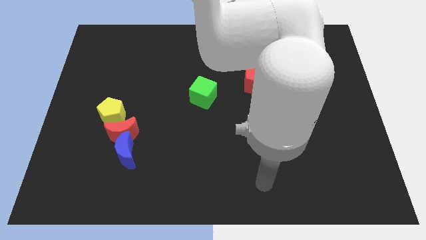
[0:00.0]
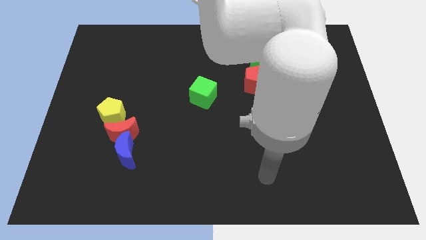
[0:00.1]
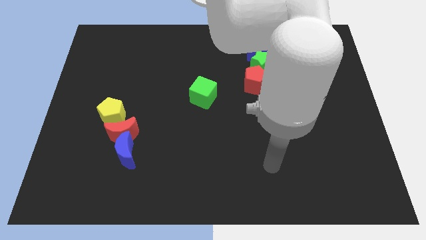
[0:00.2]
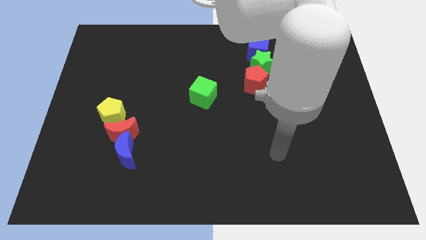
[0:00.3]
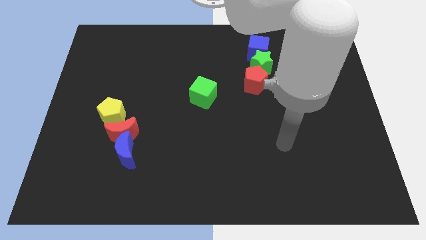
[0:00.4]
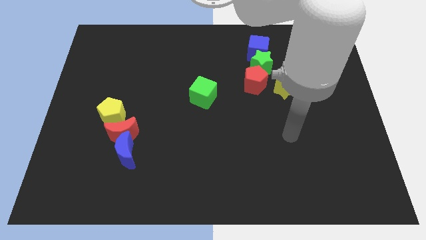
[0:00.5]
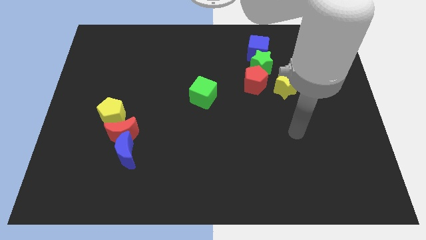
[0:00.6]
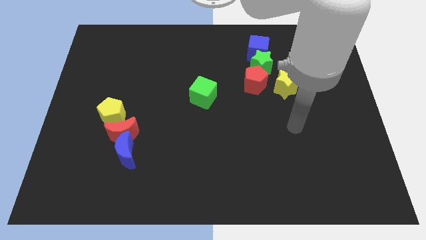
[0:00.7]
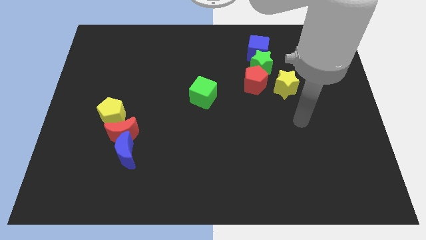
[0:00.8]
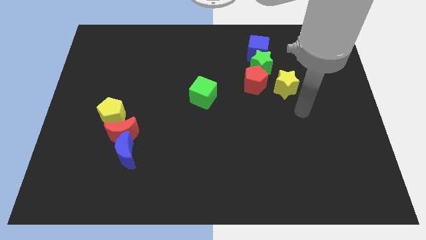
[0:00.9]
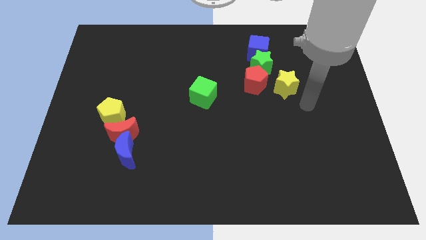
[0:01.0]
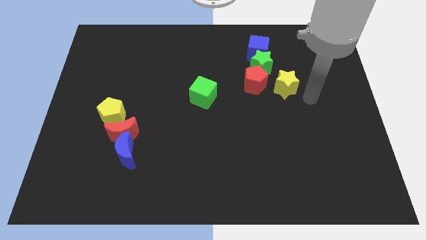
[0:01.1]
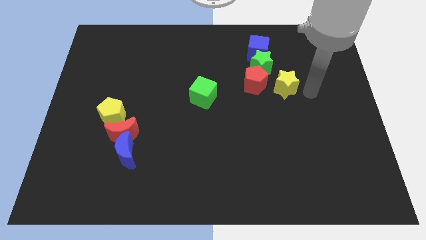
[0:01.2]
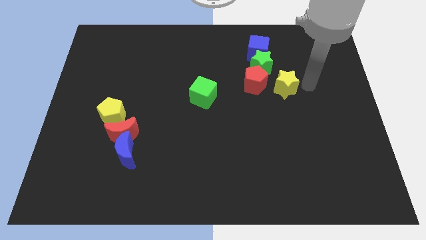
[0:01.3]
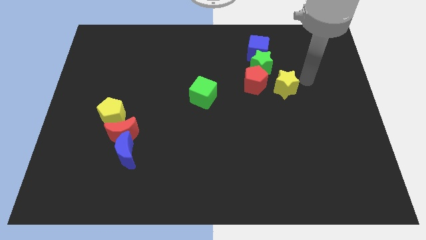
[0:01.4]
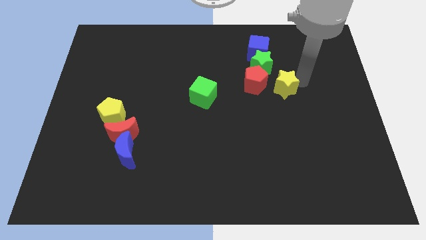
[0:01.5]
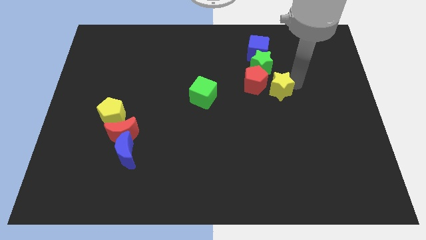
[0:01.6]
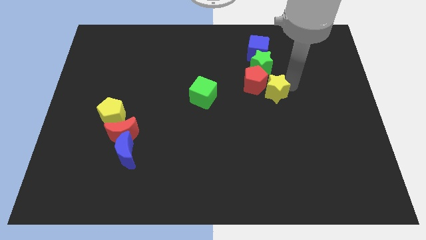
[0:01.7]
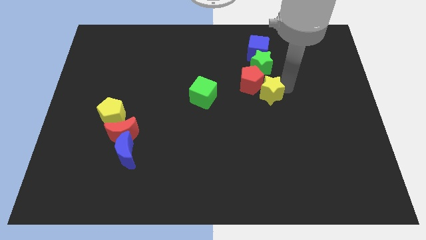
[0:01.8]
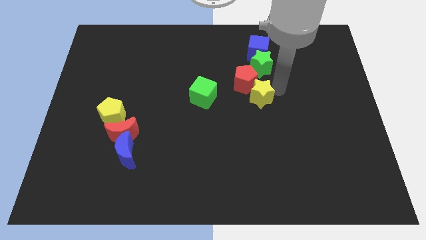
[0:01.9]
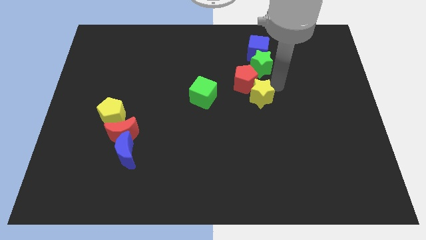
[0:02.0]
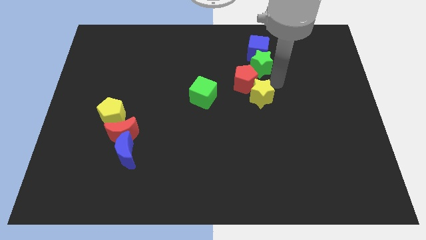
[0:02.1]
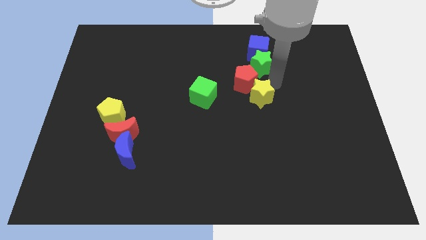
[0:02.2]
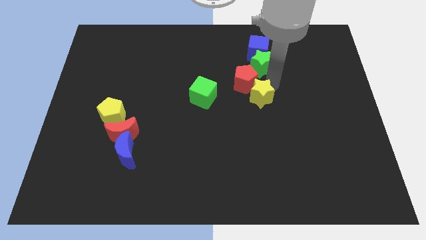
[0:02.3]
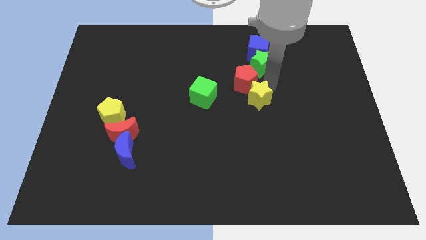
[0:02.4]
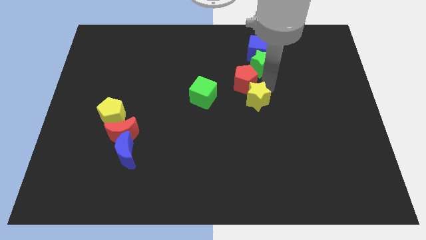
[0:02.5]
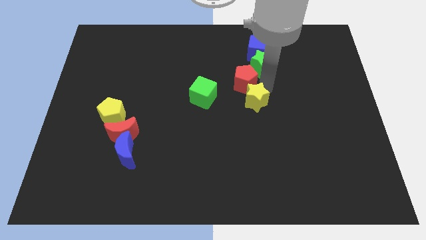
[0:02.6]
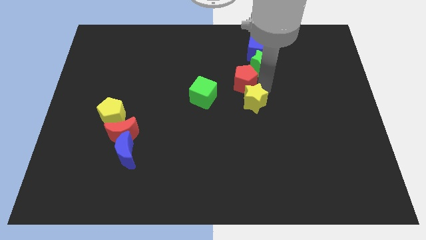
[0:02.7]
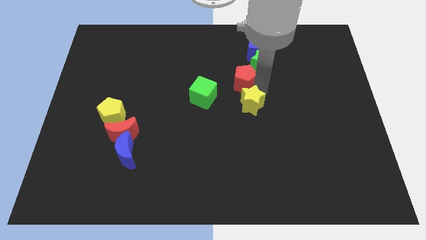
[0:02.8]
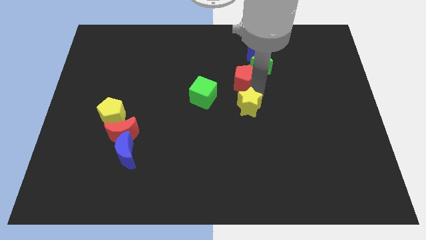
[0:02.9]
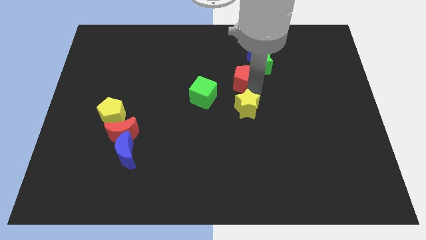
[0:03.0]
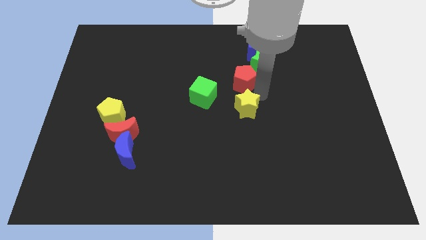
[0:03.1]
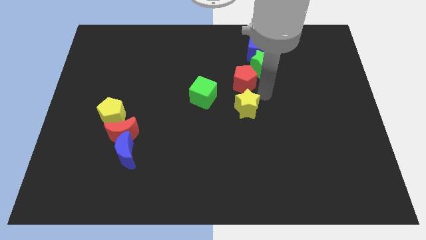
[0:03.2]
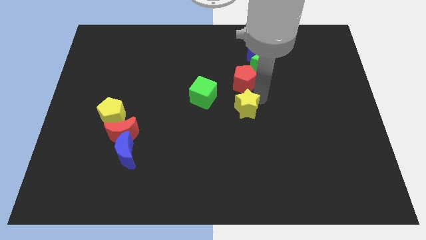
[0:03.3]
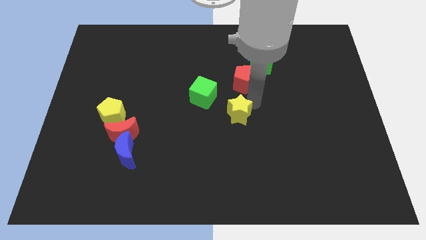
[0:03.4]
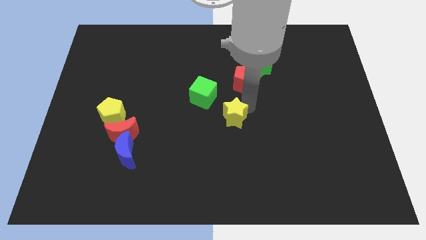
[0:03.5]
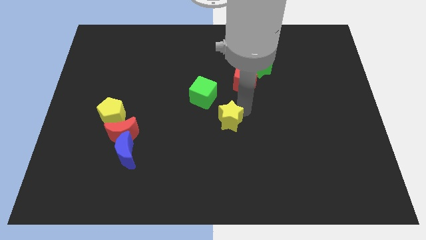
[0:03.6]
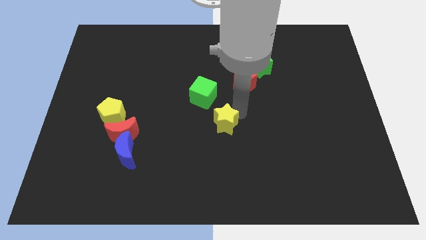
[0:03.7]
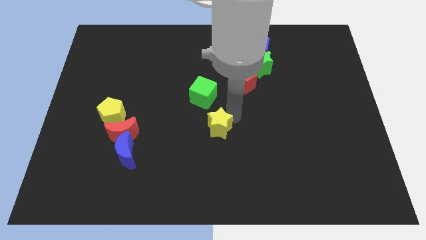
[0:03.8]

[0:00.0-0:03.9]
push the yellow star diagonally down and to the left

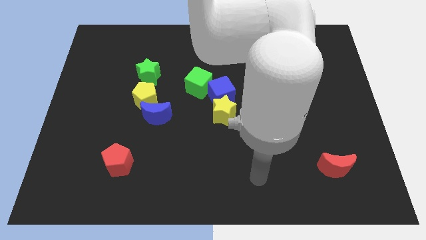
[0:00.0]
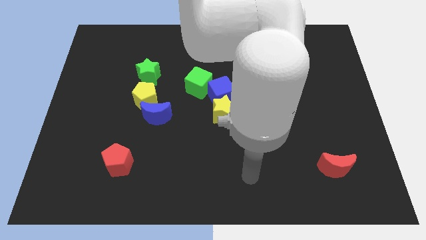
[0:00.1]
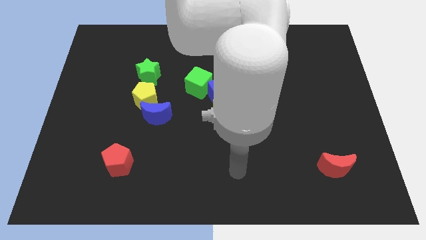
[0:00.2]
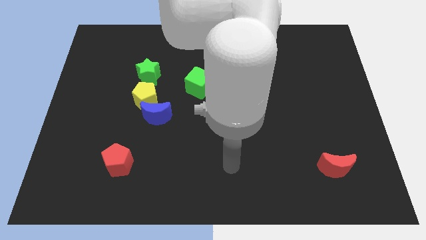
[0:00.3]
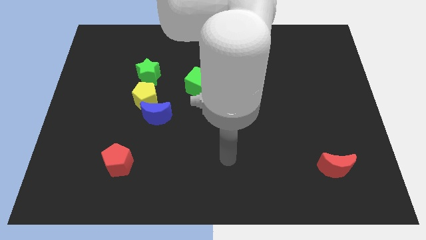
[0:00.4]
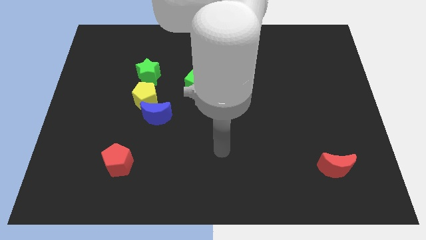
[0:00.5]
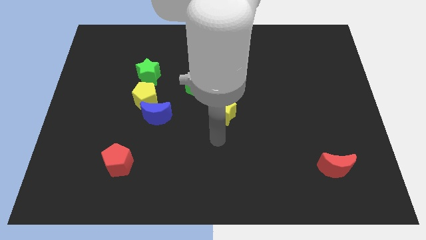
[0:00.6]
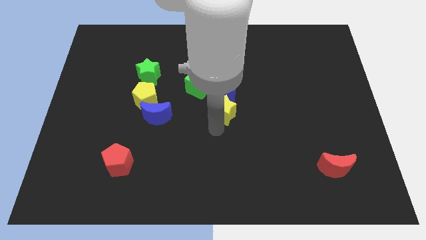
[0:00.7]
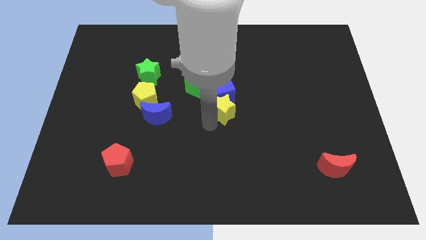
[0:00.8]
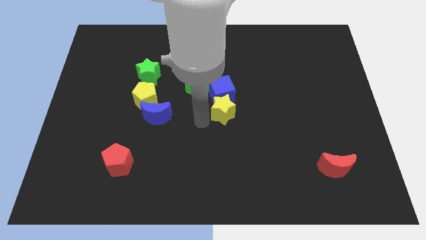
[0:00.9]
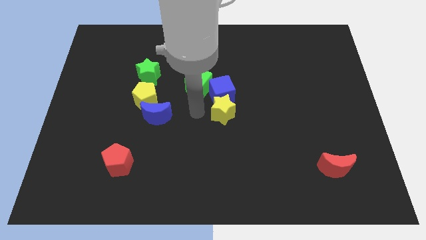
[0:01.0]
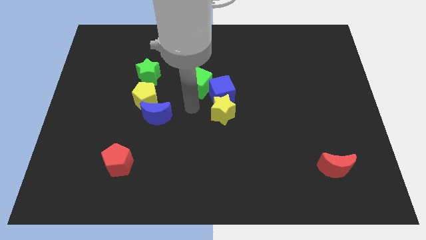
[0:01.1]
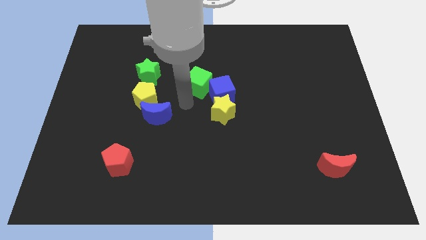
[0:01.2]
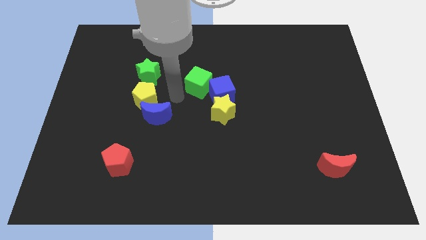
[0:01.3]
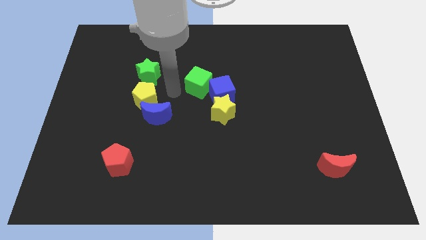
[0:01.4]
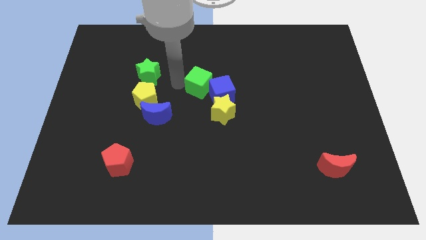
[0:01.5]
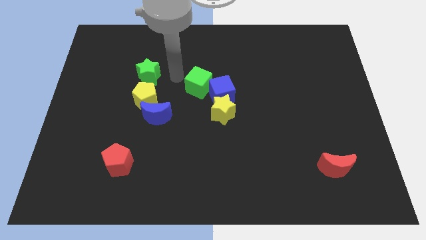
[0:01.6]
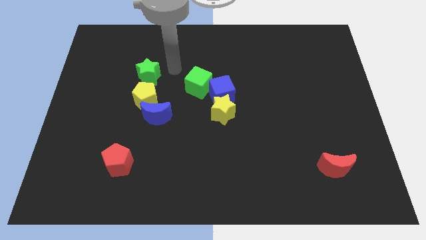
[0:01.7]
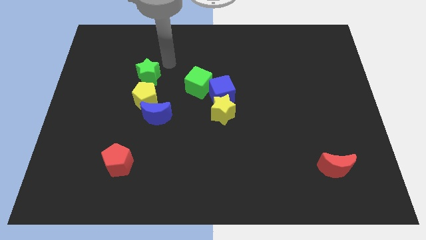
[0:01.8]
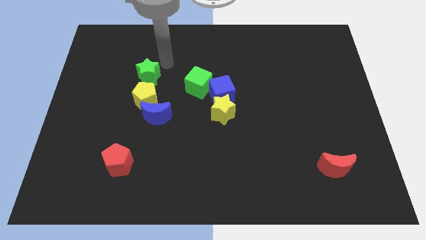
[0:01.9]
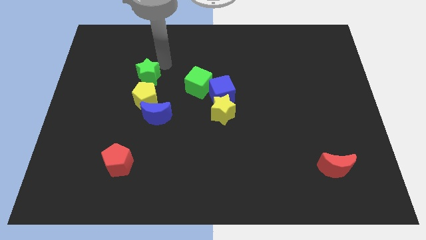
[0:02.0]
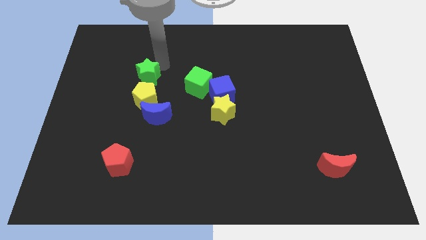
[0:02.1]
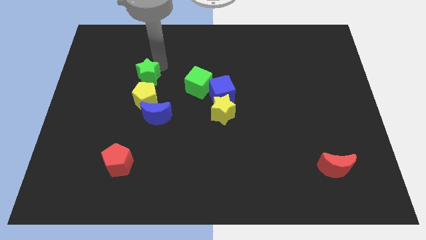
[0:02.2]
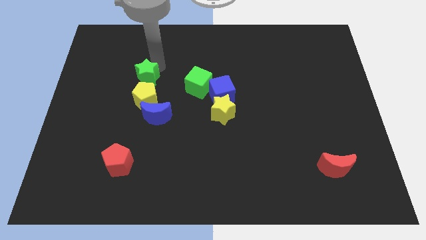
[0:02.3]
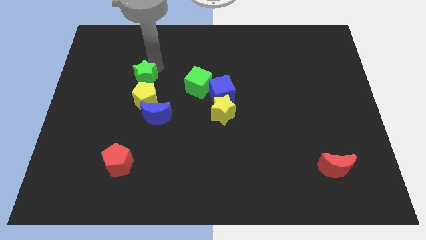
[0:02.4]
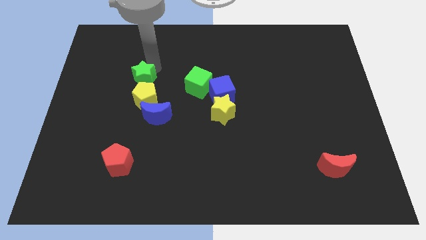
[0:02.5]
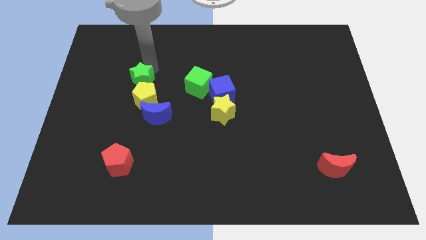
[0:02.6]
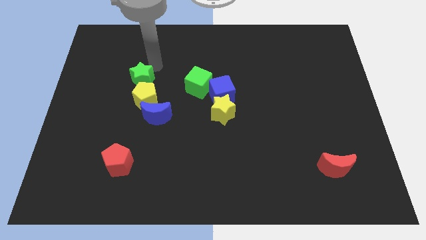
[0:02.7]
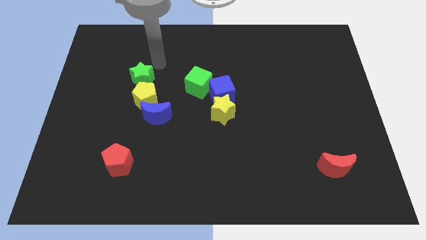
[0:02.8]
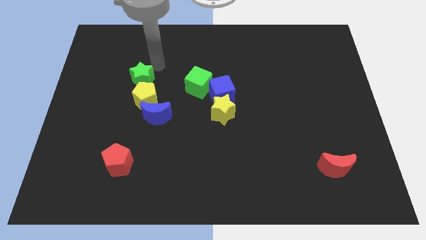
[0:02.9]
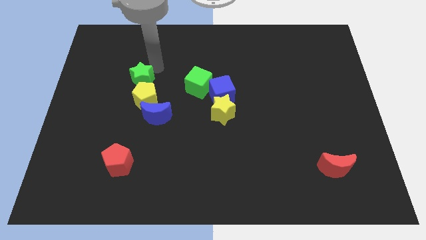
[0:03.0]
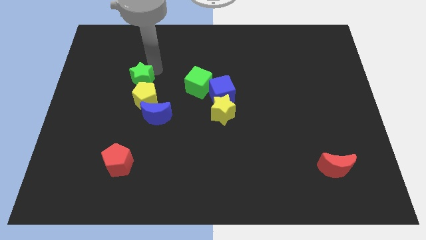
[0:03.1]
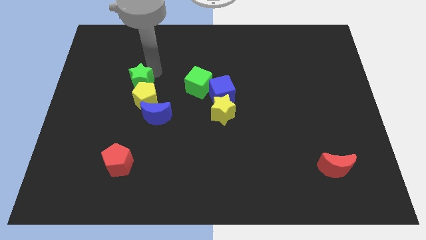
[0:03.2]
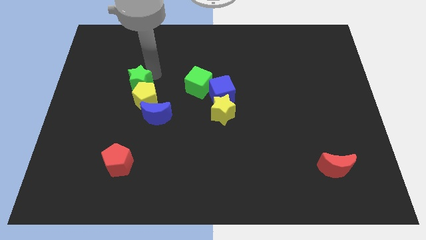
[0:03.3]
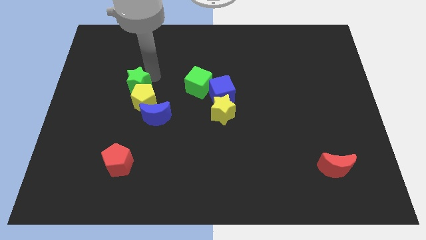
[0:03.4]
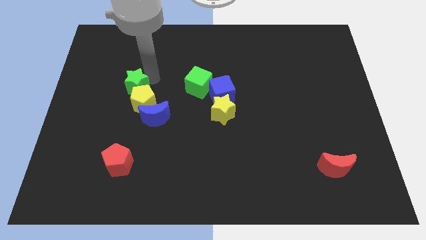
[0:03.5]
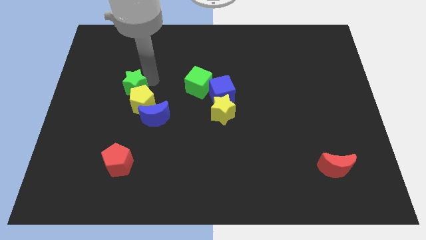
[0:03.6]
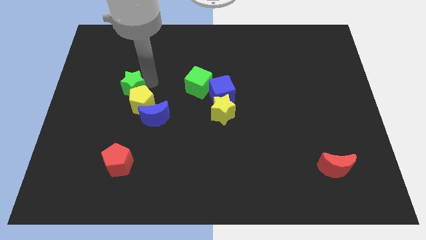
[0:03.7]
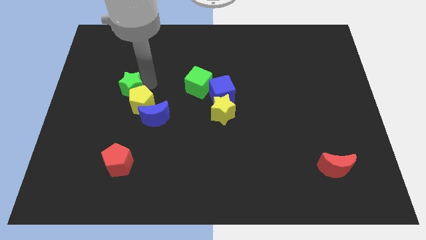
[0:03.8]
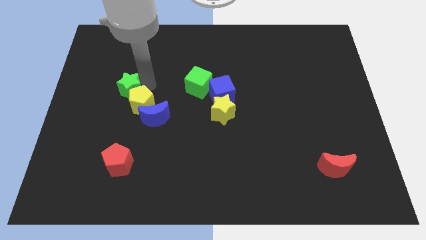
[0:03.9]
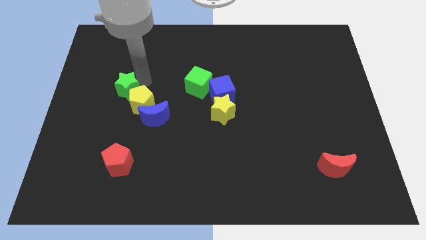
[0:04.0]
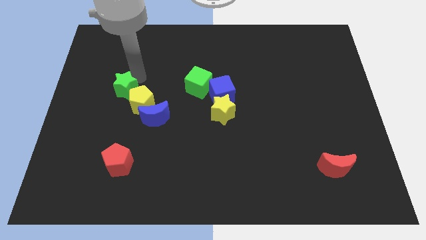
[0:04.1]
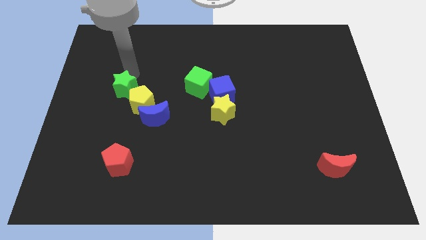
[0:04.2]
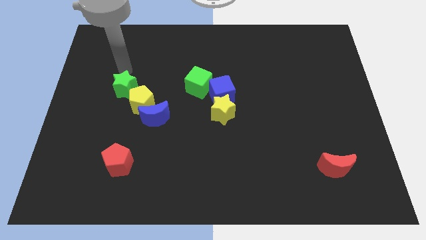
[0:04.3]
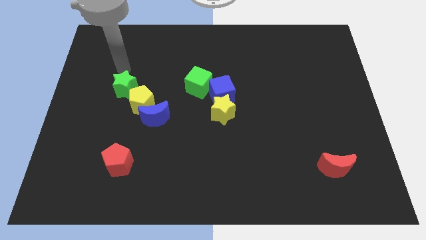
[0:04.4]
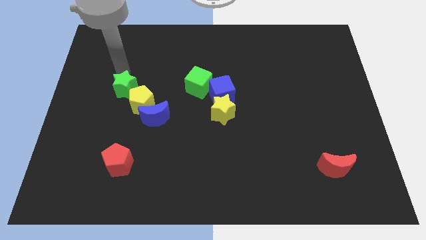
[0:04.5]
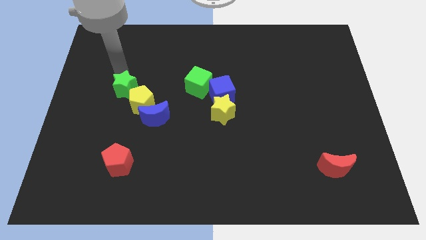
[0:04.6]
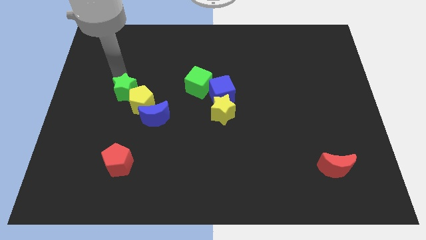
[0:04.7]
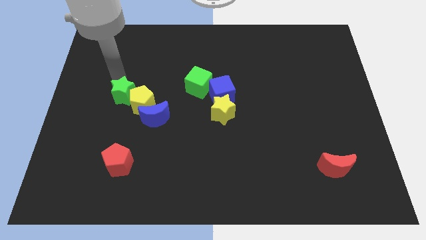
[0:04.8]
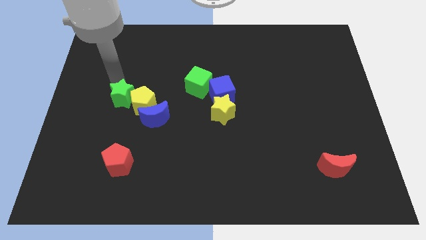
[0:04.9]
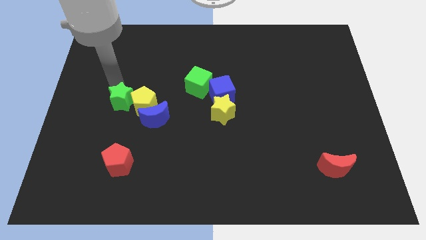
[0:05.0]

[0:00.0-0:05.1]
slide the green star a little bit down
